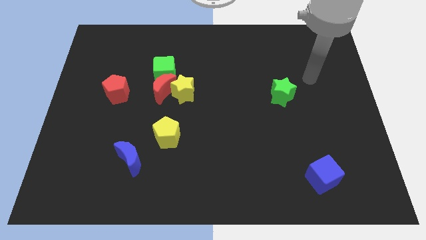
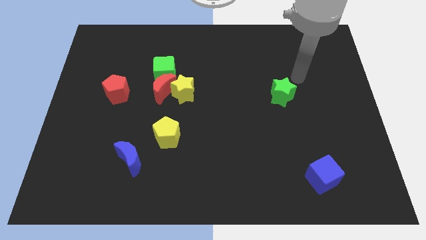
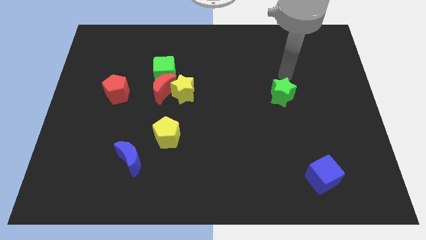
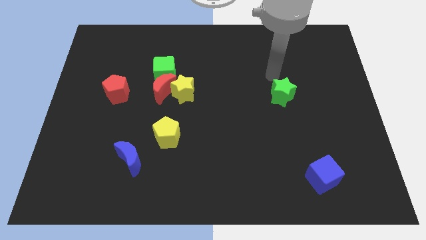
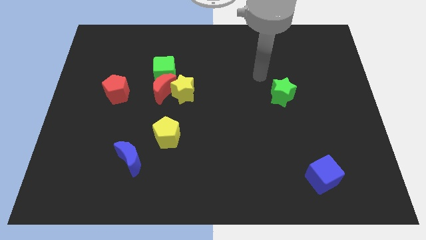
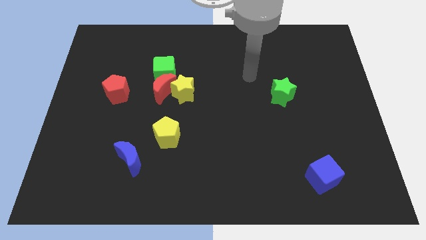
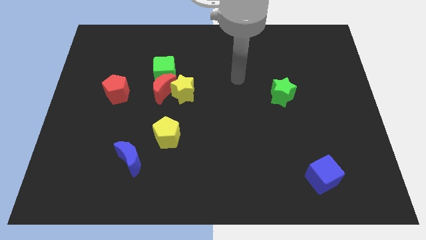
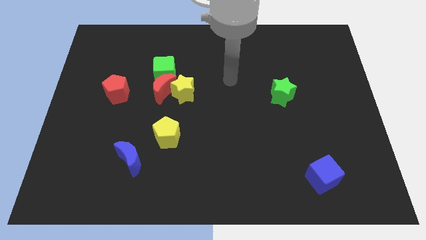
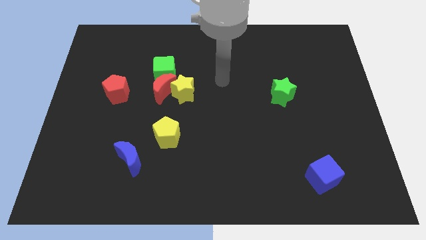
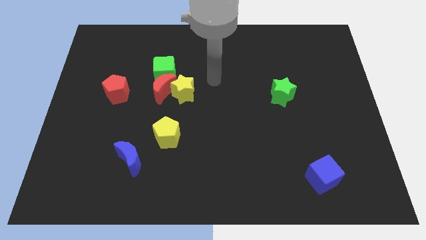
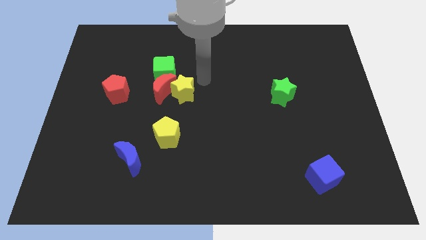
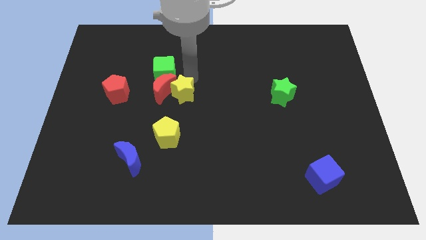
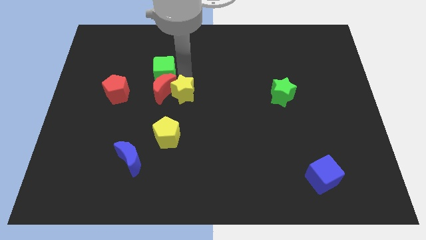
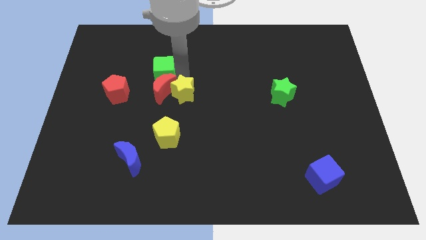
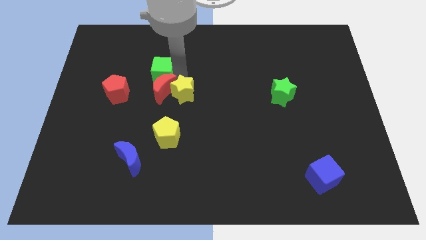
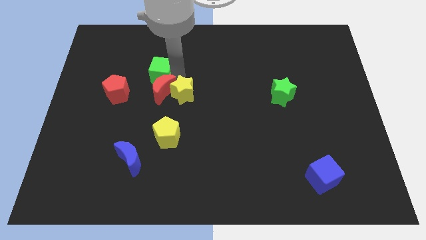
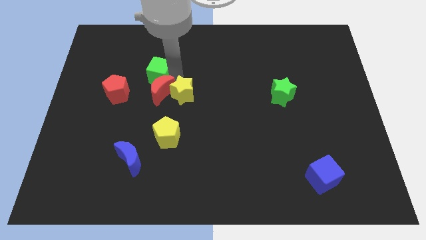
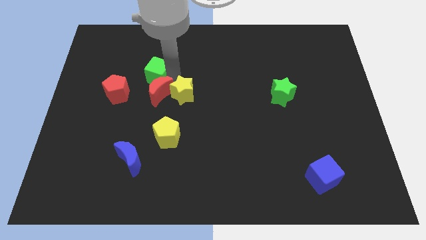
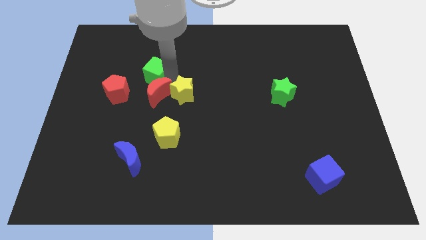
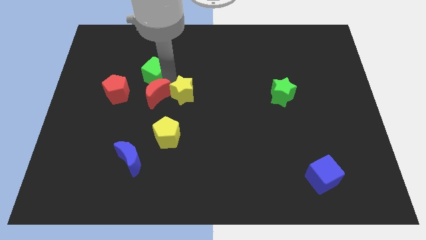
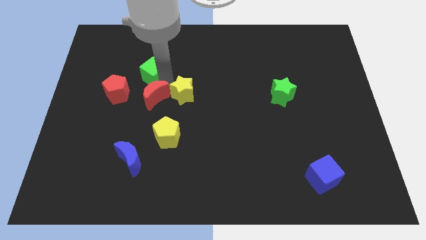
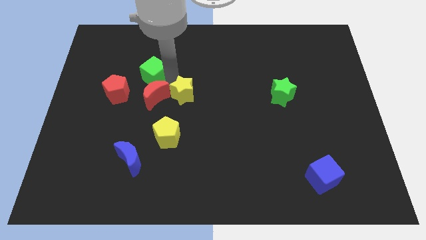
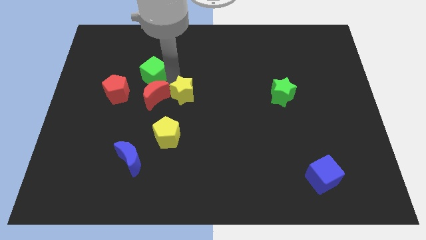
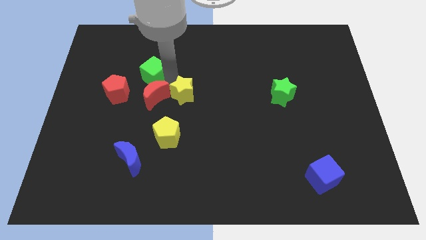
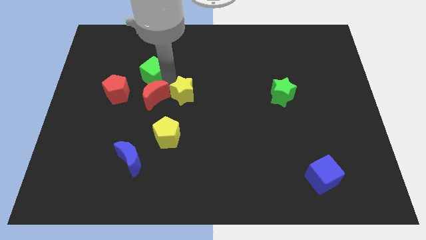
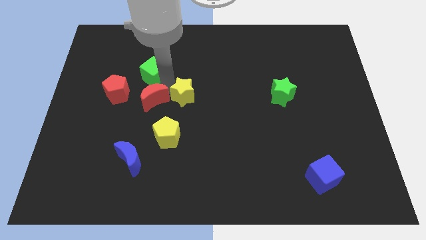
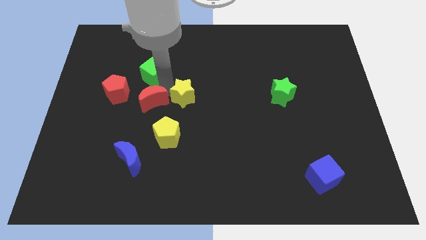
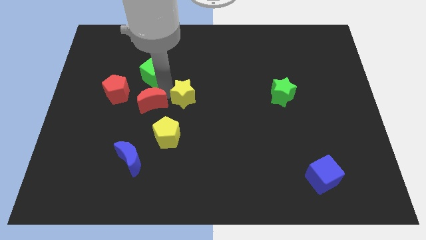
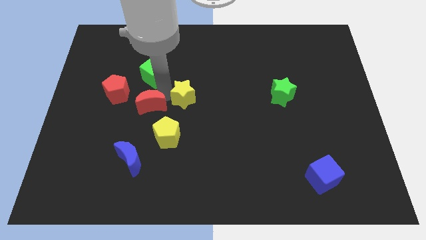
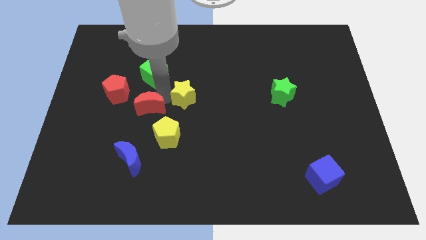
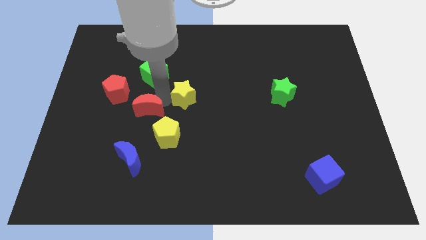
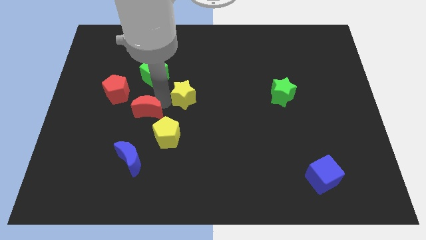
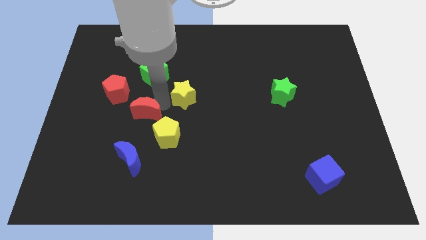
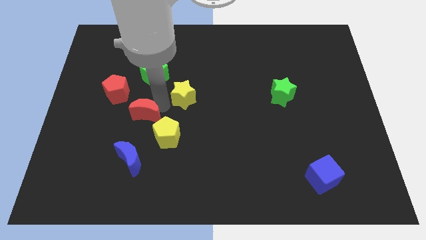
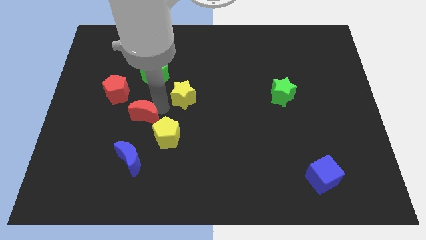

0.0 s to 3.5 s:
pull the red moon apart from the yellow star and green cube

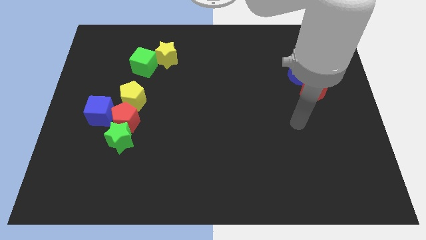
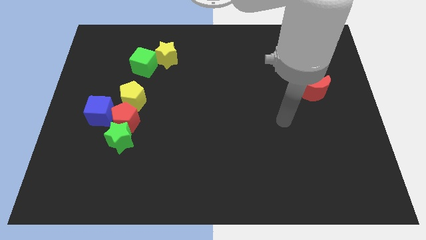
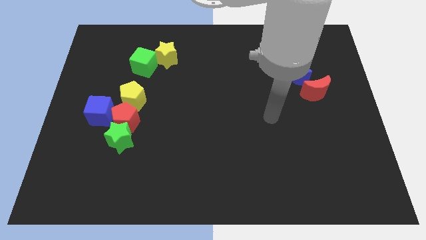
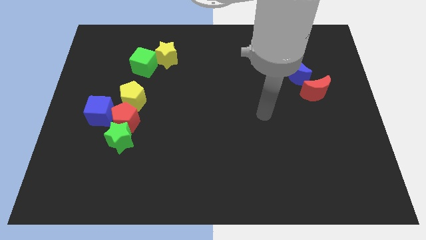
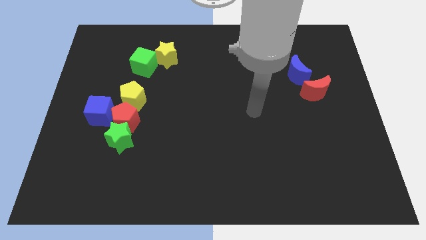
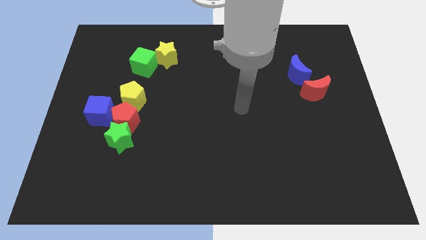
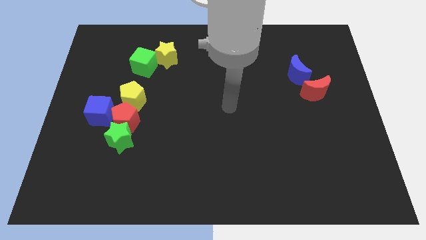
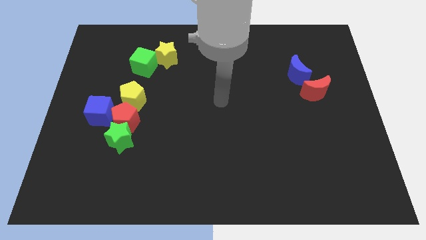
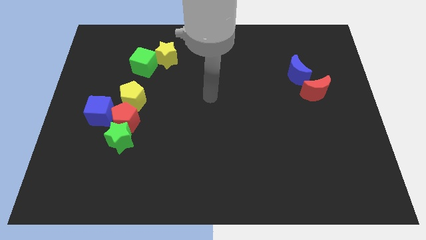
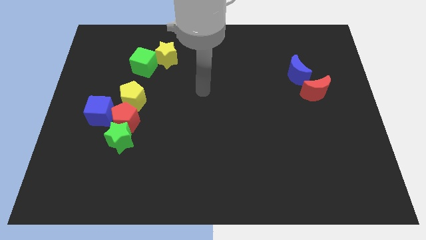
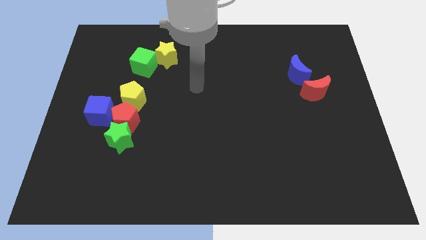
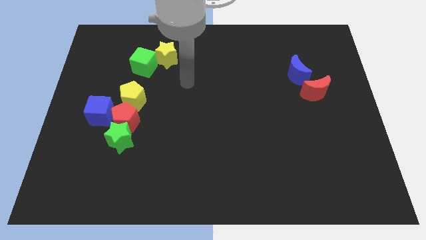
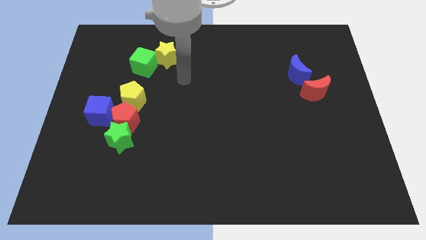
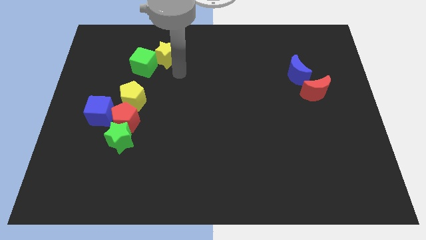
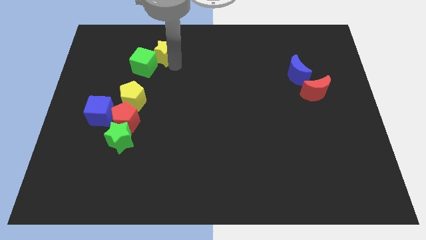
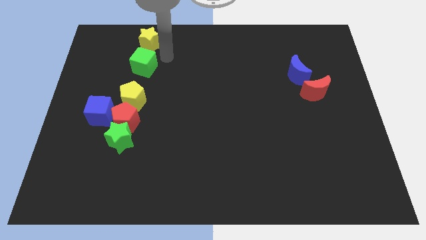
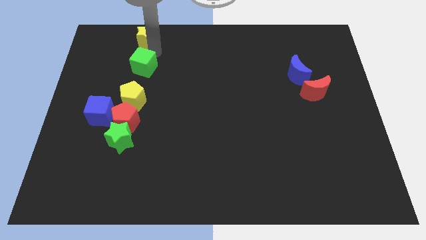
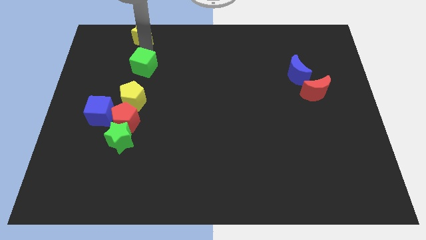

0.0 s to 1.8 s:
separate the green cube from the yellow star

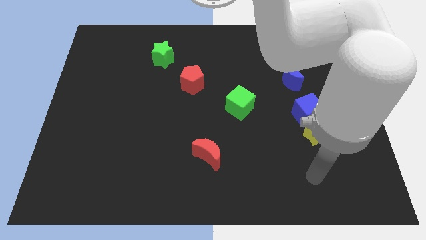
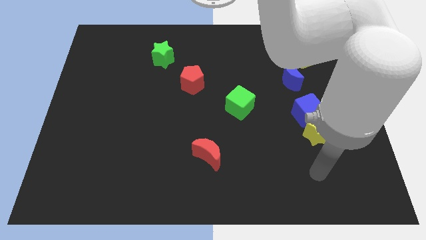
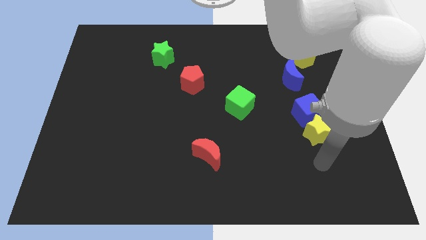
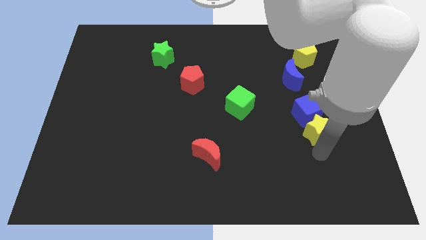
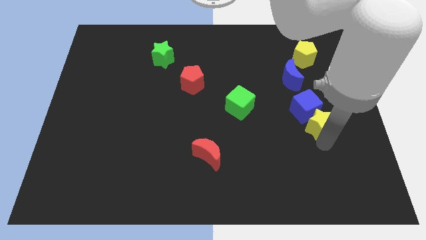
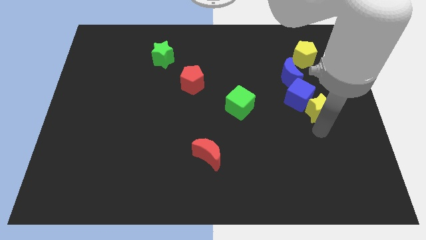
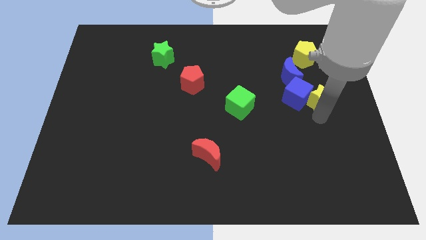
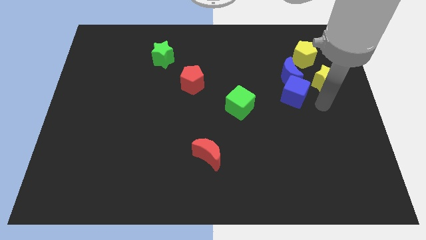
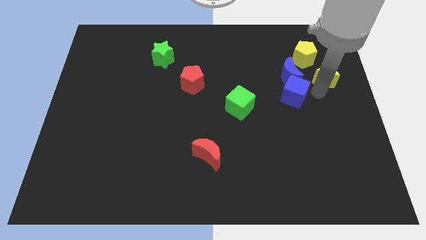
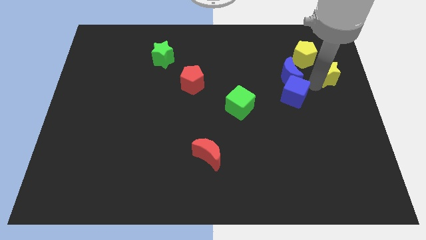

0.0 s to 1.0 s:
pull the blue cube apart from the yellow star

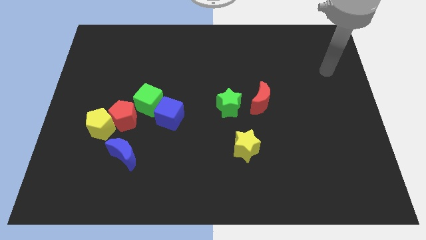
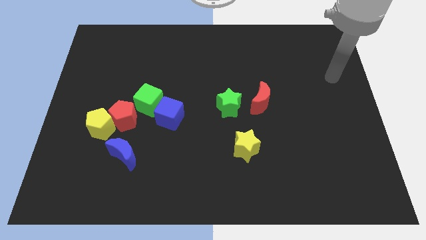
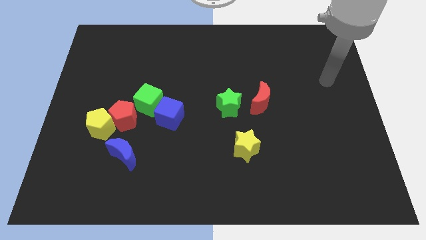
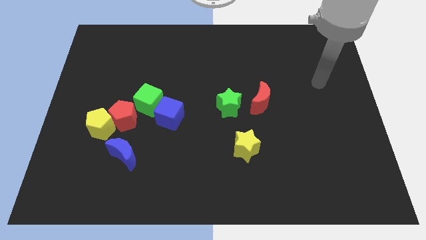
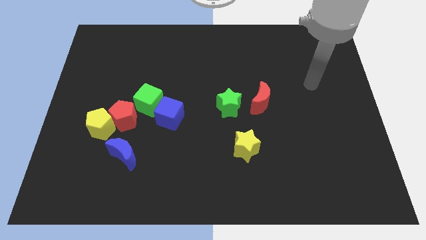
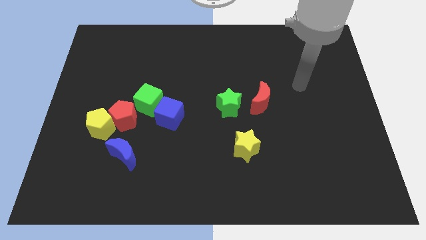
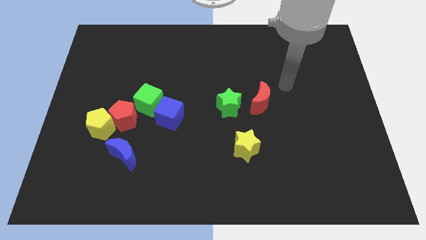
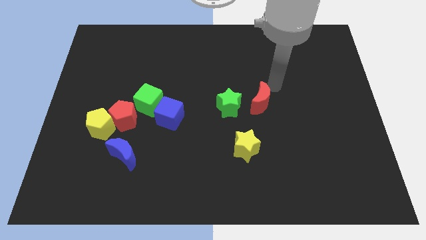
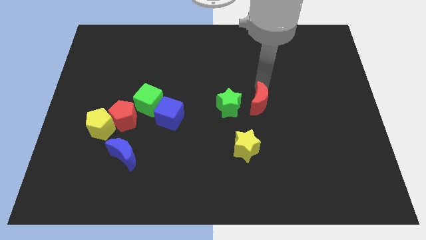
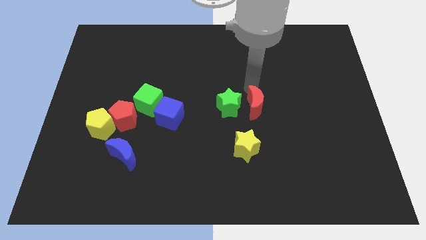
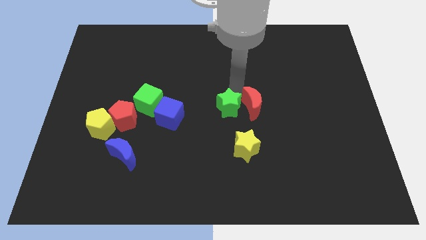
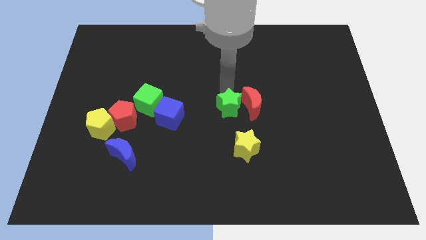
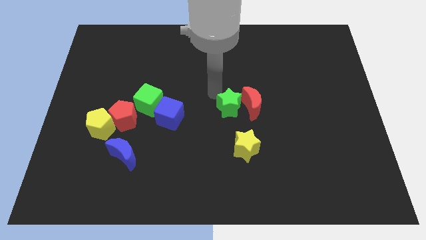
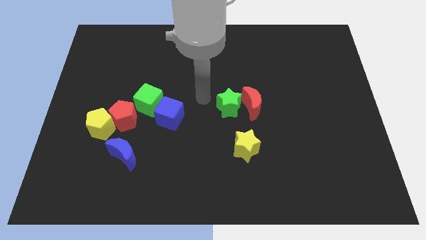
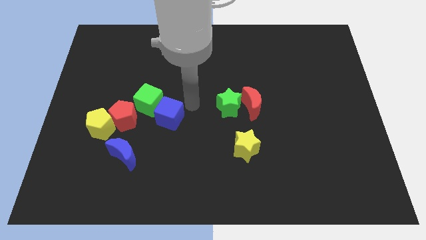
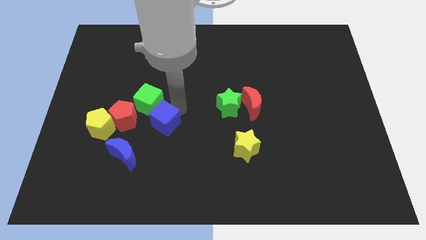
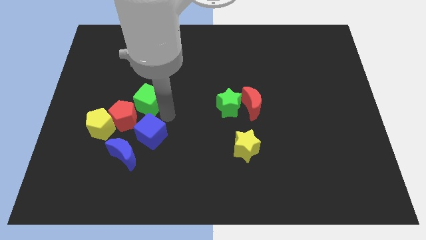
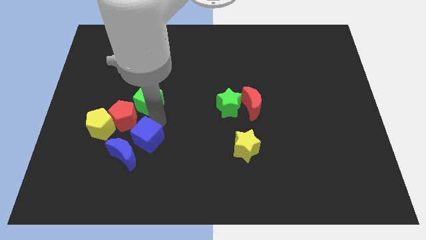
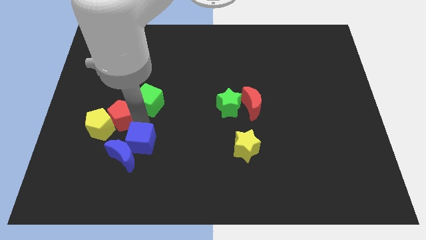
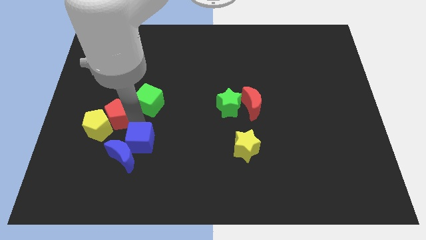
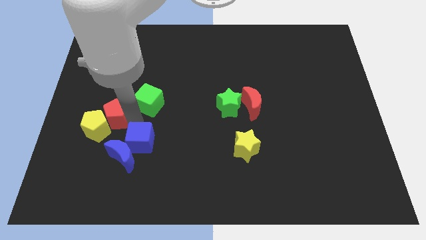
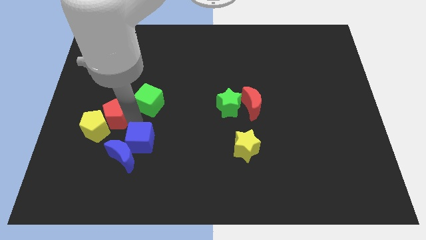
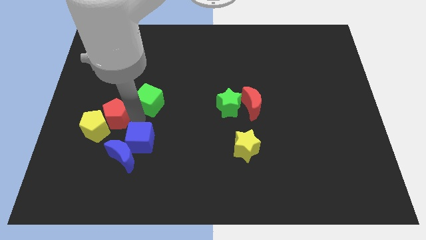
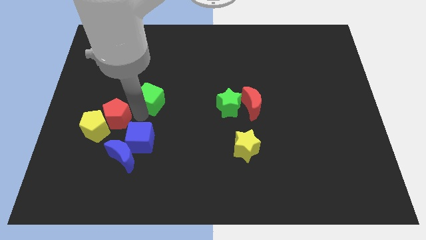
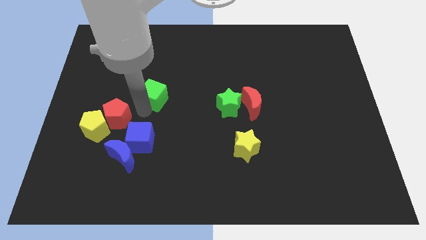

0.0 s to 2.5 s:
move the green cube away from the blue cube and red pentagon

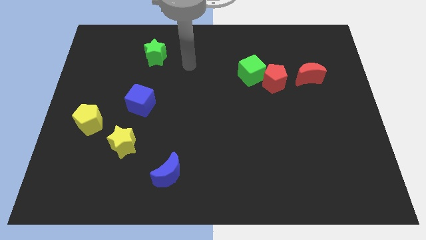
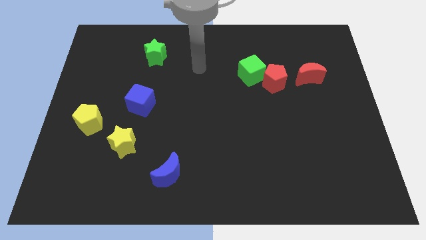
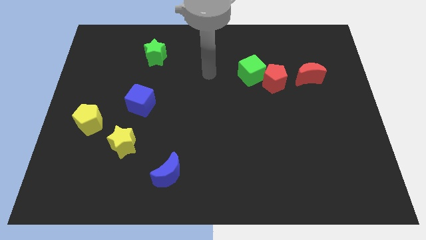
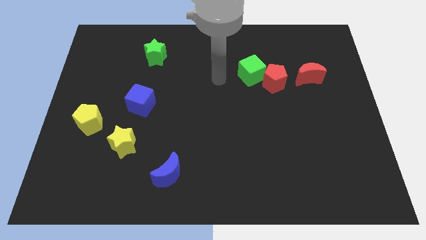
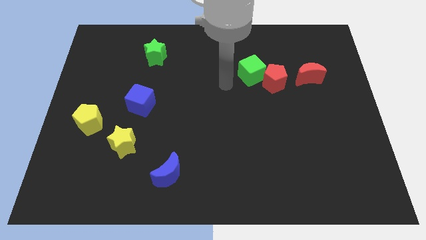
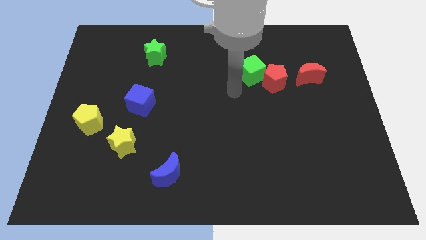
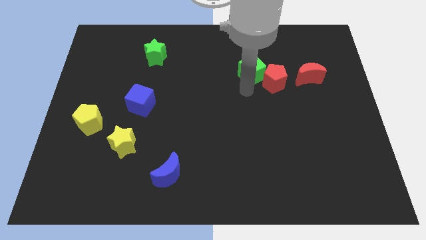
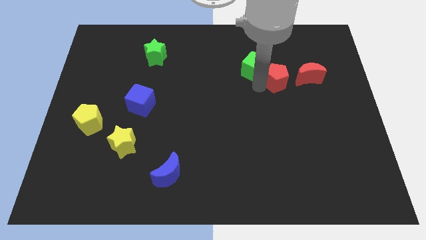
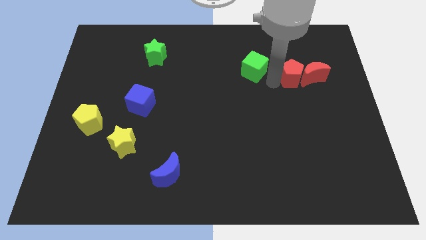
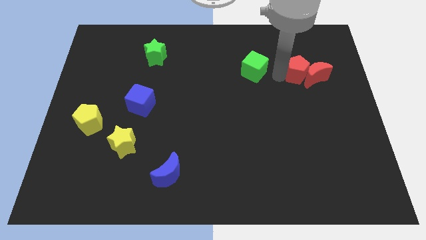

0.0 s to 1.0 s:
pull the green cube apart from the red pentagon
